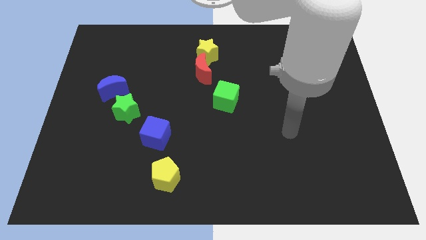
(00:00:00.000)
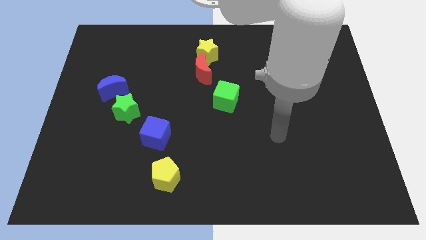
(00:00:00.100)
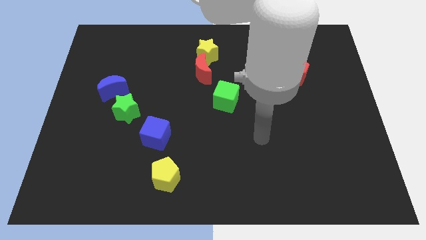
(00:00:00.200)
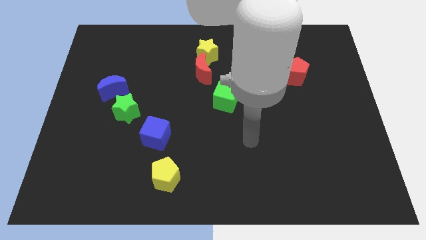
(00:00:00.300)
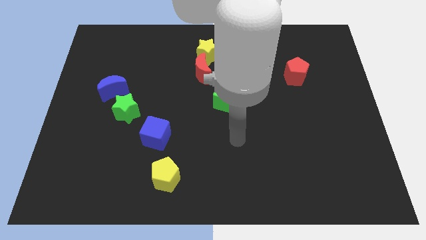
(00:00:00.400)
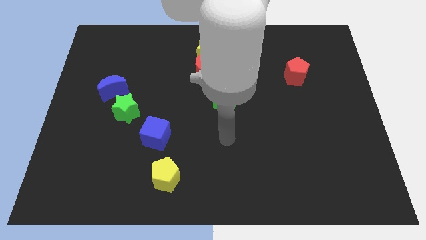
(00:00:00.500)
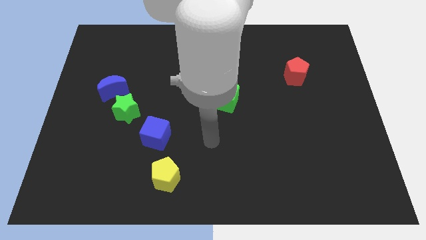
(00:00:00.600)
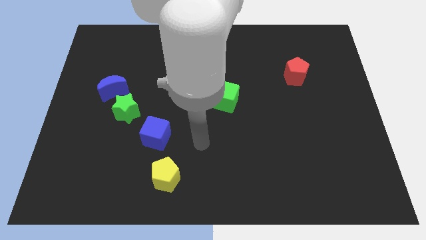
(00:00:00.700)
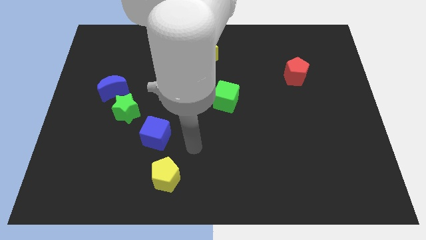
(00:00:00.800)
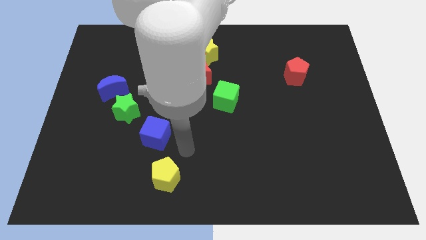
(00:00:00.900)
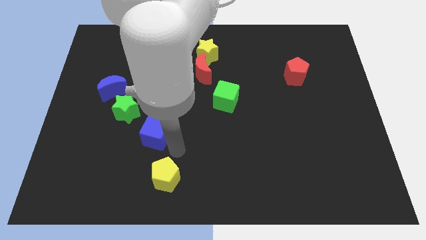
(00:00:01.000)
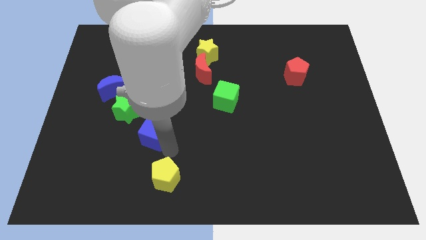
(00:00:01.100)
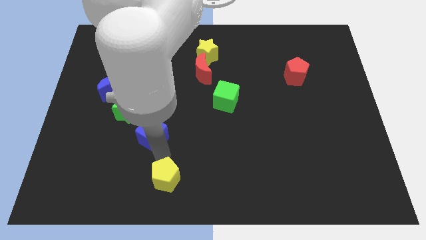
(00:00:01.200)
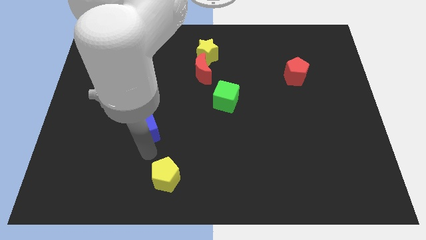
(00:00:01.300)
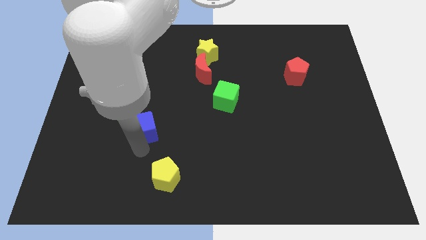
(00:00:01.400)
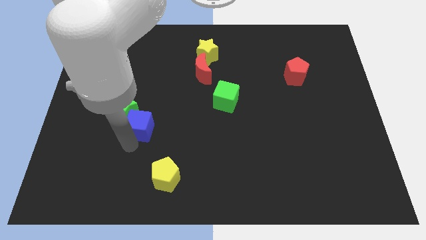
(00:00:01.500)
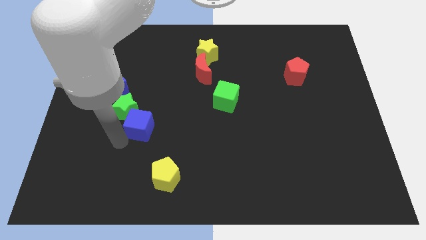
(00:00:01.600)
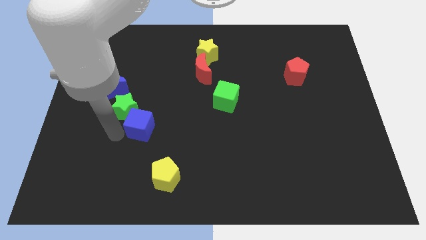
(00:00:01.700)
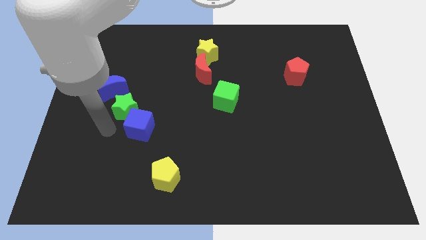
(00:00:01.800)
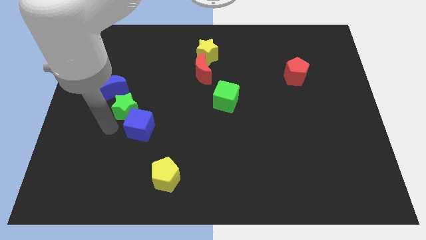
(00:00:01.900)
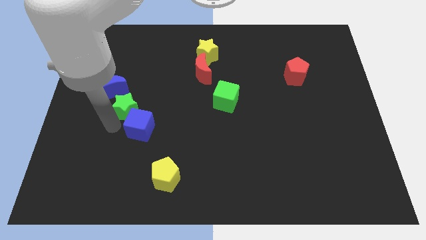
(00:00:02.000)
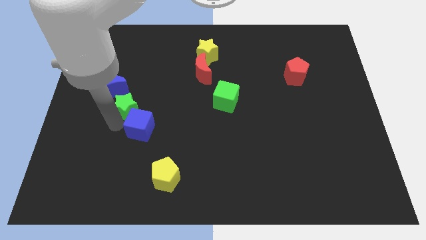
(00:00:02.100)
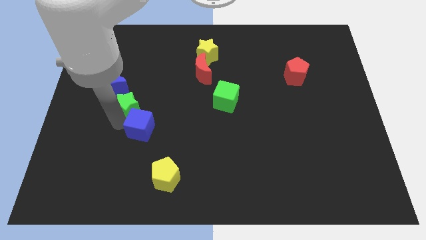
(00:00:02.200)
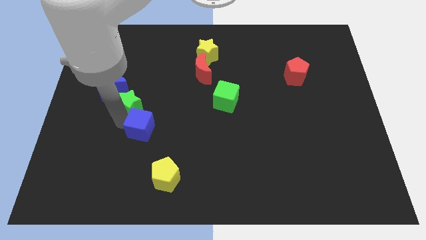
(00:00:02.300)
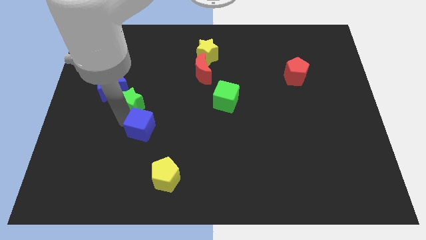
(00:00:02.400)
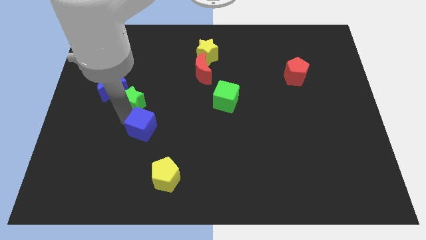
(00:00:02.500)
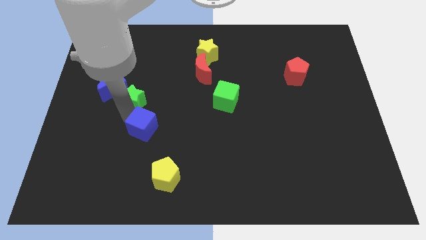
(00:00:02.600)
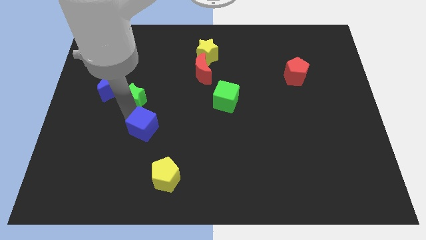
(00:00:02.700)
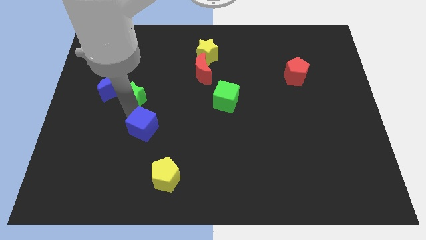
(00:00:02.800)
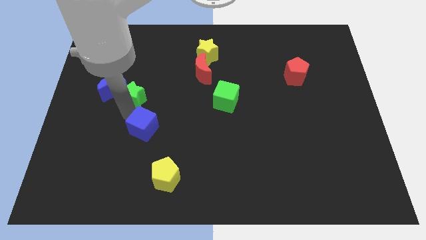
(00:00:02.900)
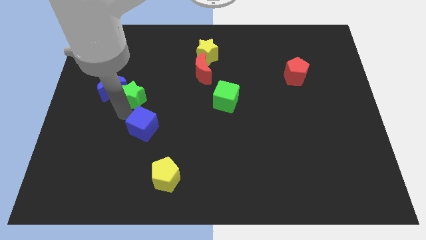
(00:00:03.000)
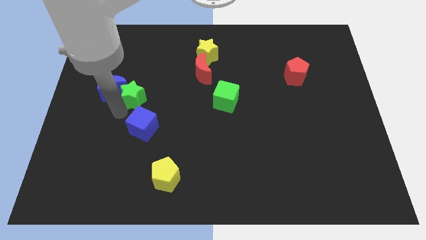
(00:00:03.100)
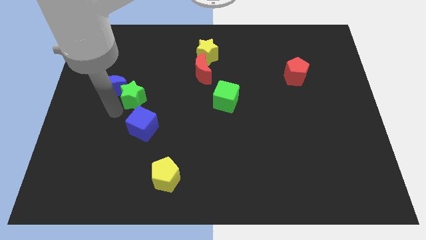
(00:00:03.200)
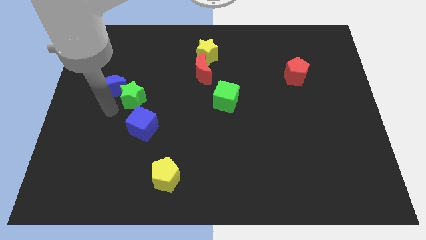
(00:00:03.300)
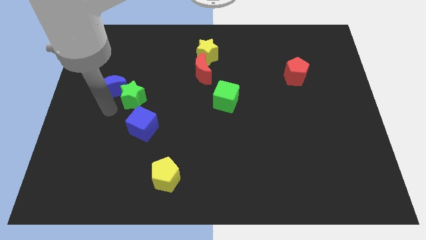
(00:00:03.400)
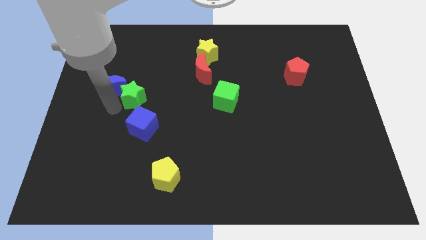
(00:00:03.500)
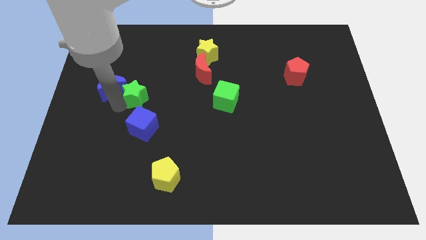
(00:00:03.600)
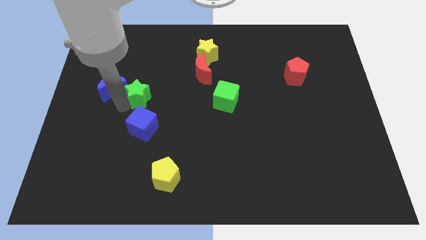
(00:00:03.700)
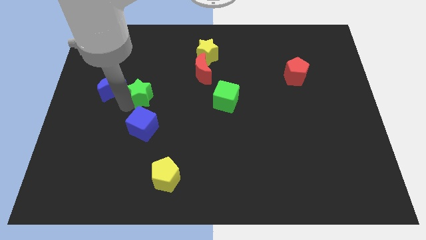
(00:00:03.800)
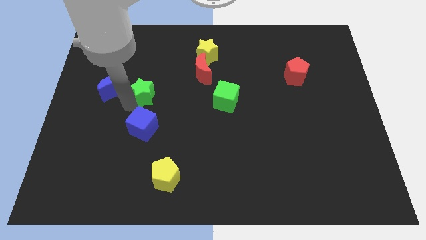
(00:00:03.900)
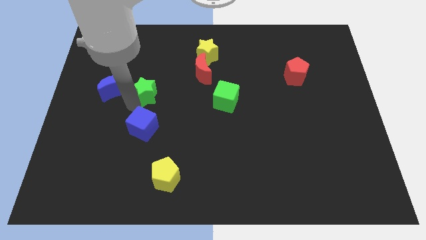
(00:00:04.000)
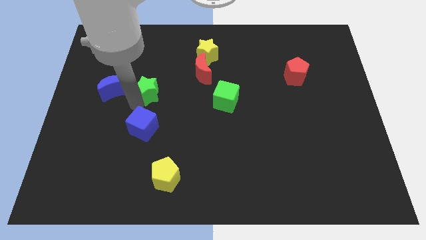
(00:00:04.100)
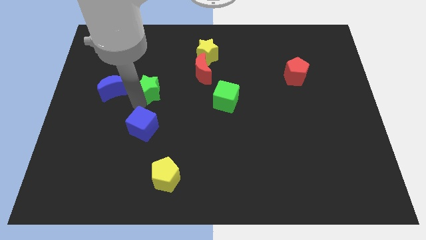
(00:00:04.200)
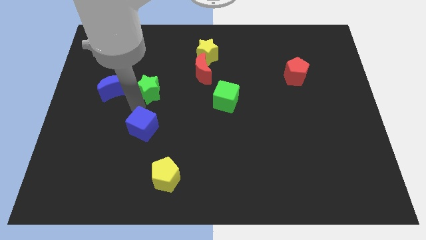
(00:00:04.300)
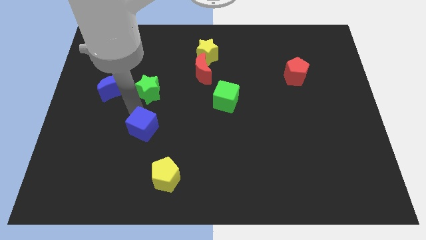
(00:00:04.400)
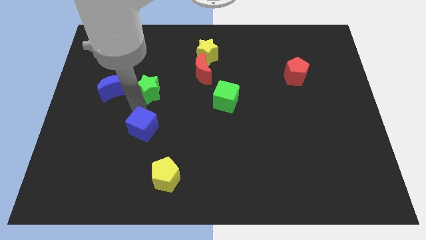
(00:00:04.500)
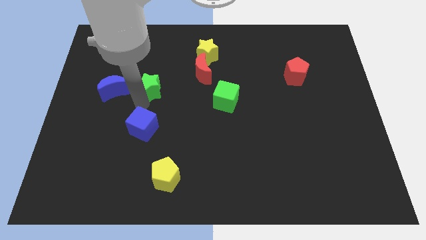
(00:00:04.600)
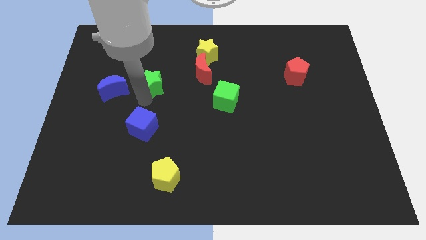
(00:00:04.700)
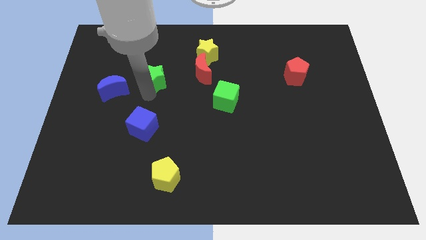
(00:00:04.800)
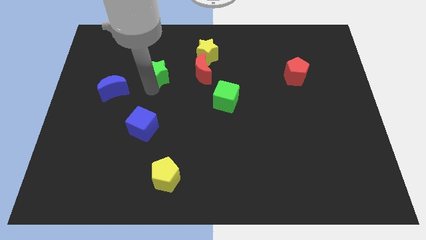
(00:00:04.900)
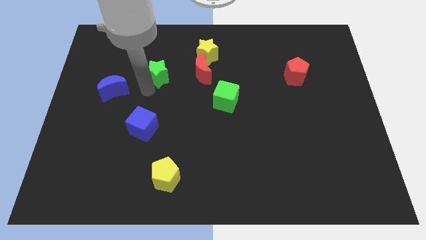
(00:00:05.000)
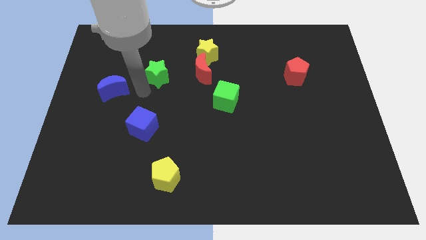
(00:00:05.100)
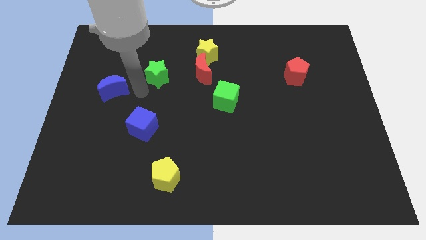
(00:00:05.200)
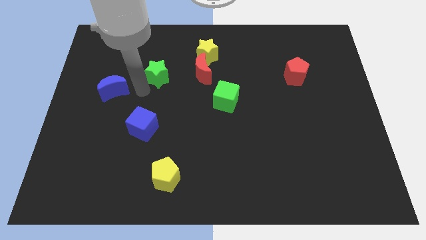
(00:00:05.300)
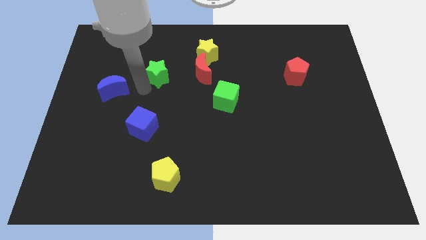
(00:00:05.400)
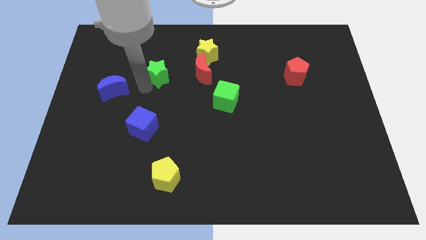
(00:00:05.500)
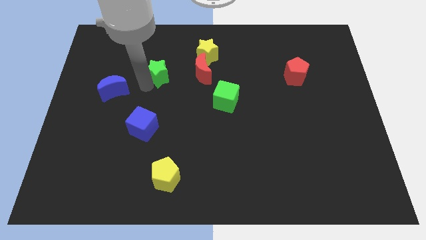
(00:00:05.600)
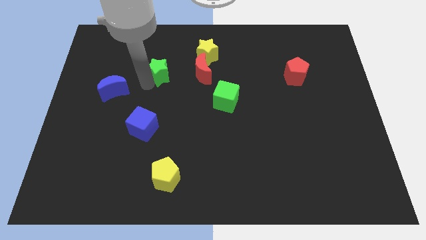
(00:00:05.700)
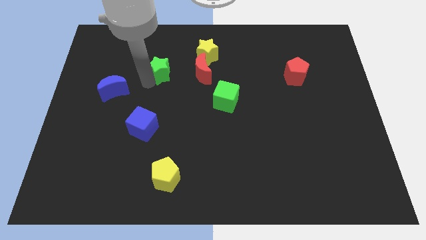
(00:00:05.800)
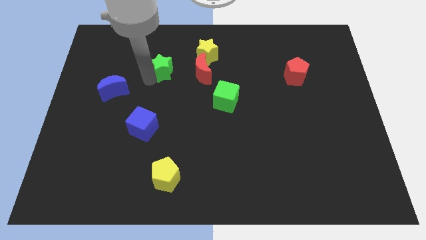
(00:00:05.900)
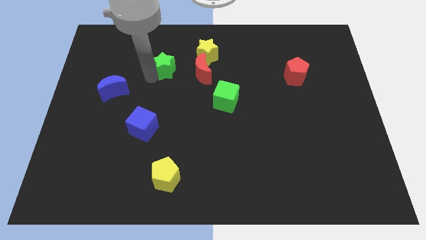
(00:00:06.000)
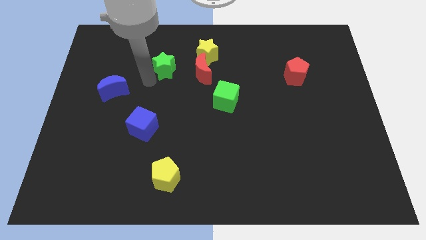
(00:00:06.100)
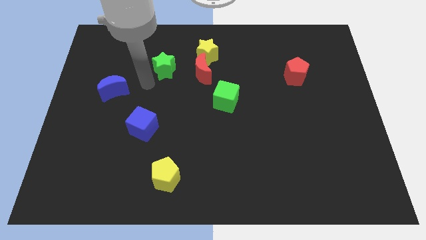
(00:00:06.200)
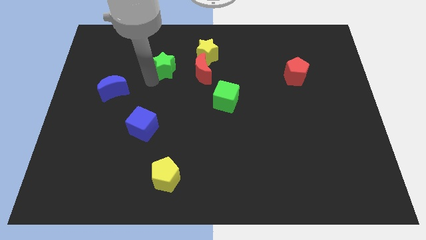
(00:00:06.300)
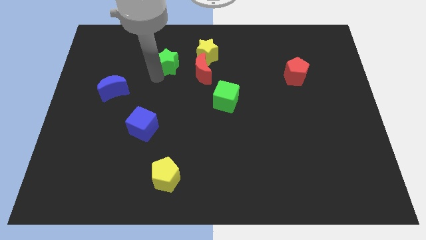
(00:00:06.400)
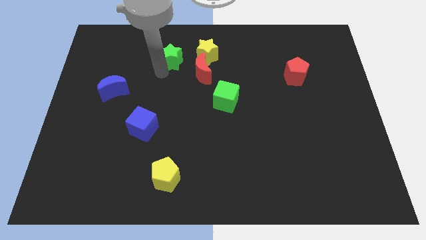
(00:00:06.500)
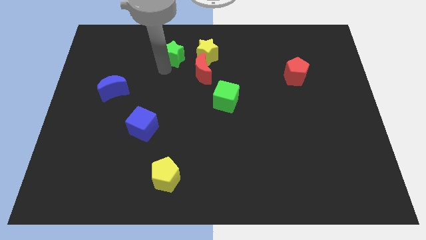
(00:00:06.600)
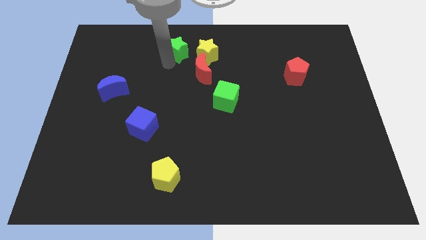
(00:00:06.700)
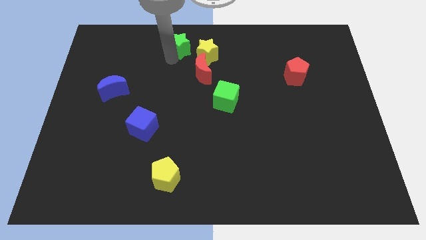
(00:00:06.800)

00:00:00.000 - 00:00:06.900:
move the green star to the top

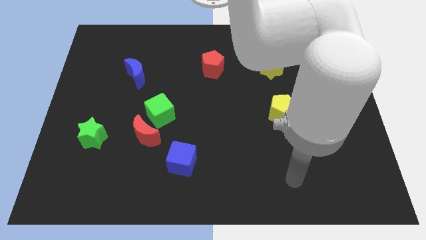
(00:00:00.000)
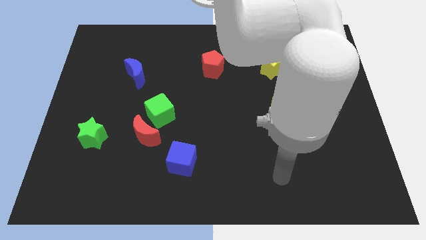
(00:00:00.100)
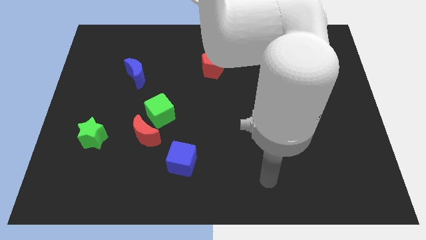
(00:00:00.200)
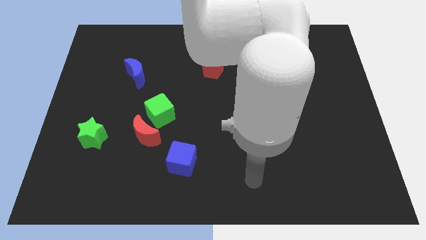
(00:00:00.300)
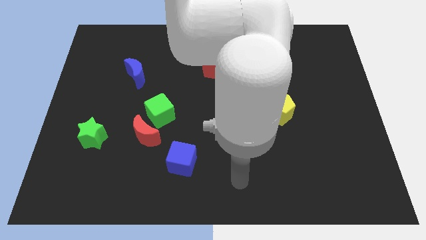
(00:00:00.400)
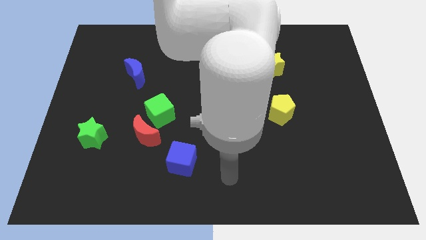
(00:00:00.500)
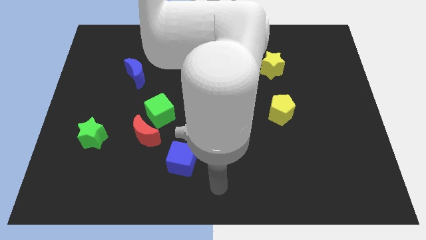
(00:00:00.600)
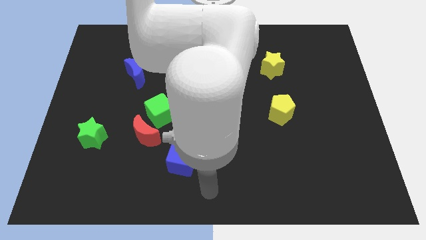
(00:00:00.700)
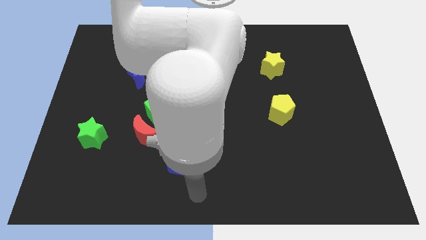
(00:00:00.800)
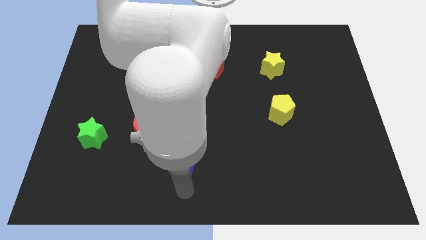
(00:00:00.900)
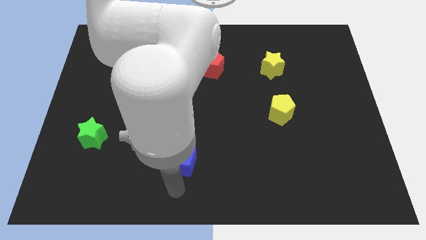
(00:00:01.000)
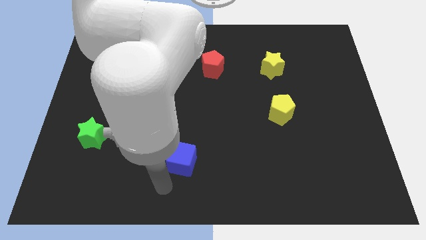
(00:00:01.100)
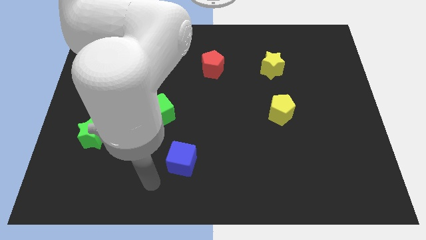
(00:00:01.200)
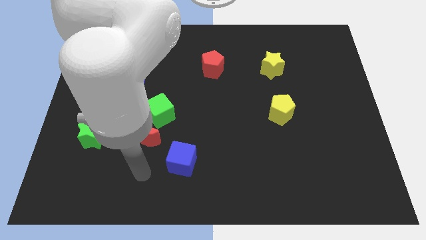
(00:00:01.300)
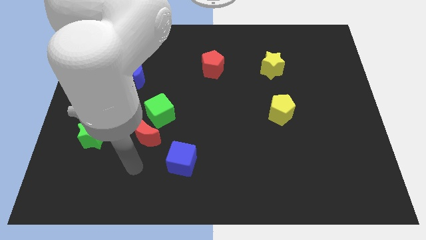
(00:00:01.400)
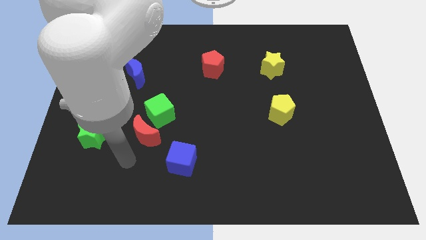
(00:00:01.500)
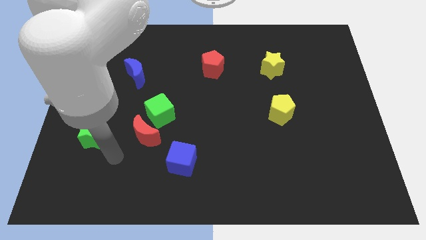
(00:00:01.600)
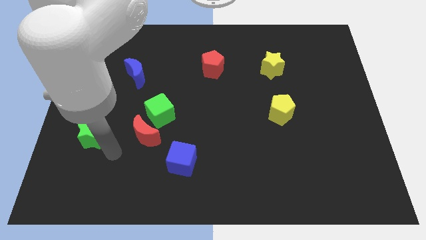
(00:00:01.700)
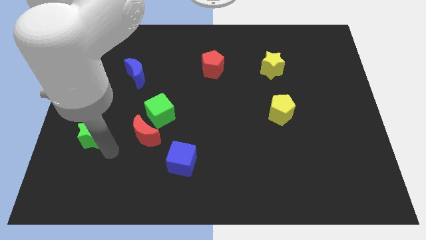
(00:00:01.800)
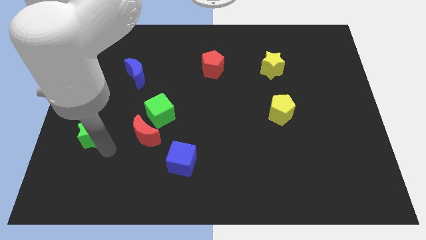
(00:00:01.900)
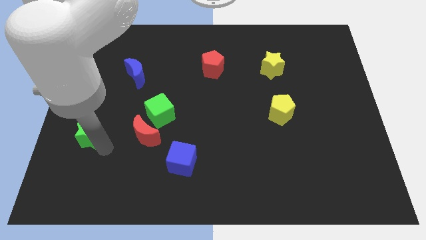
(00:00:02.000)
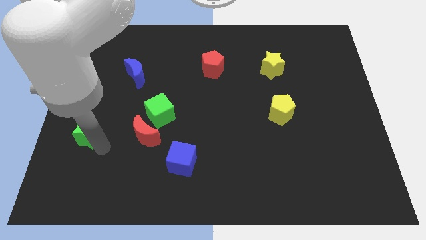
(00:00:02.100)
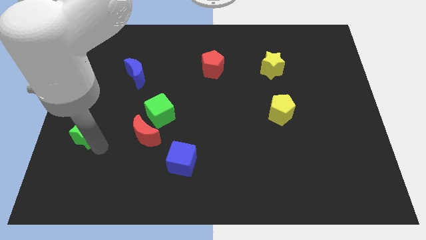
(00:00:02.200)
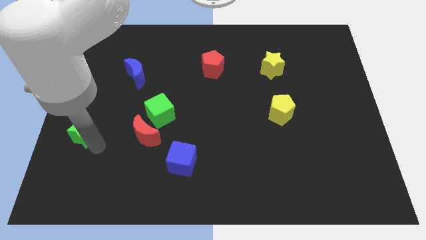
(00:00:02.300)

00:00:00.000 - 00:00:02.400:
move the green star to the left side of the board
